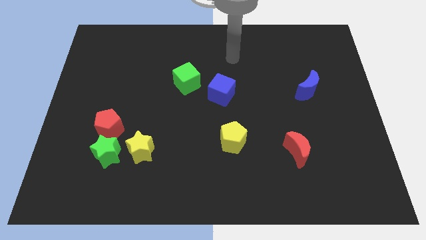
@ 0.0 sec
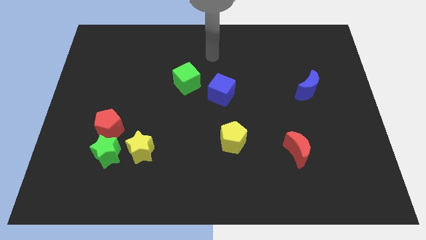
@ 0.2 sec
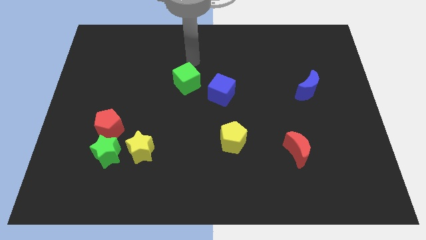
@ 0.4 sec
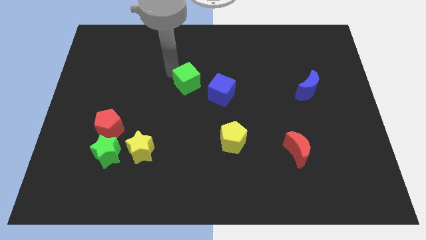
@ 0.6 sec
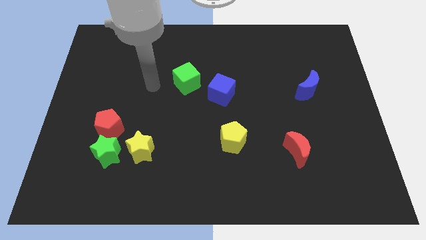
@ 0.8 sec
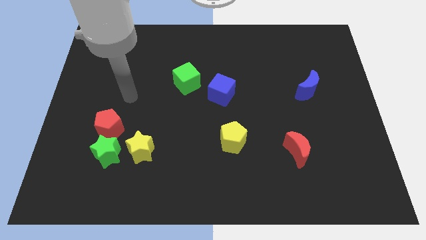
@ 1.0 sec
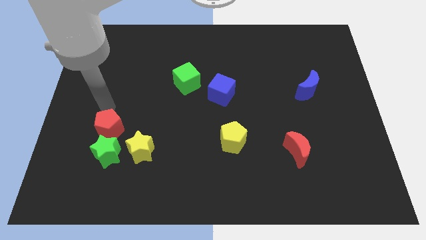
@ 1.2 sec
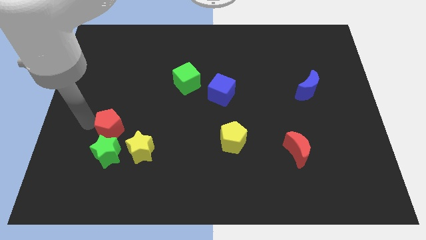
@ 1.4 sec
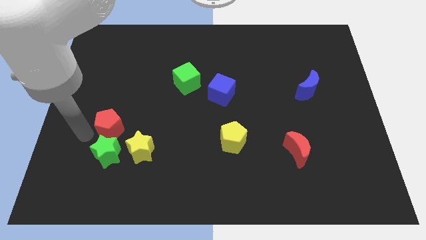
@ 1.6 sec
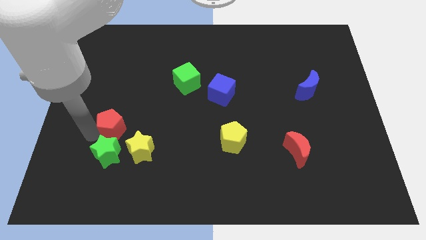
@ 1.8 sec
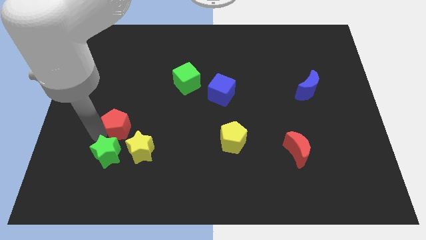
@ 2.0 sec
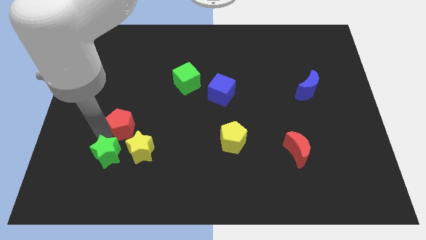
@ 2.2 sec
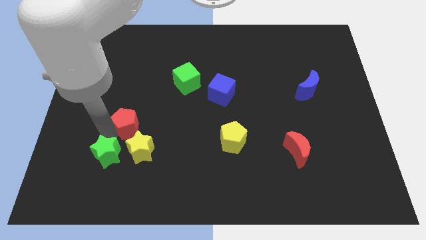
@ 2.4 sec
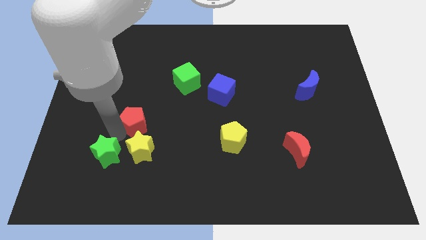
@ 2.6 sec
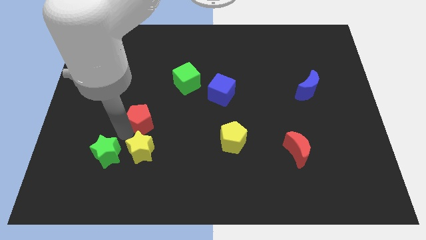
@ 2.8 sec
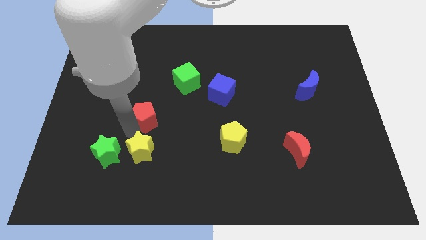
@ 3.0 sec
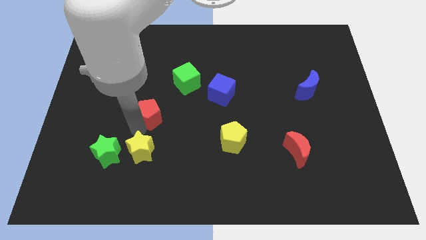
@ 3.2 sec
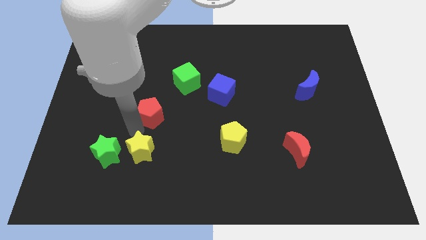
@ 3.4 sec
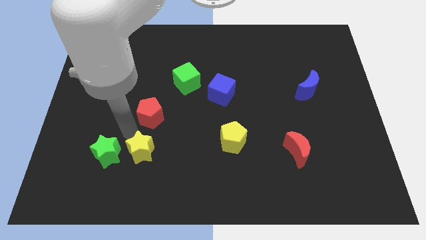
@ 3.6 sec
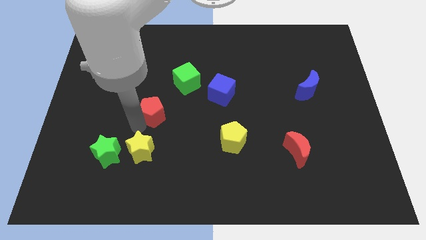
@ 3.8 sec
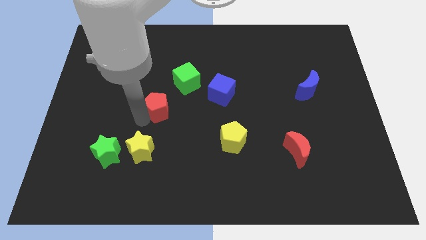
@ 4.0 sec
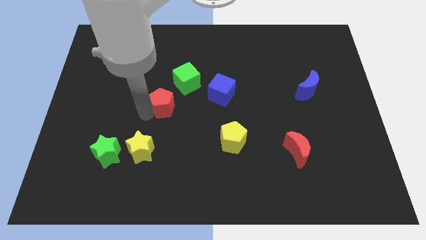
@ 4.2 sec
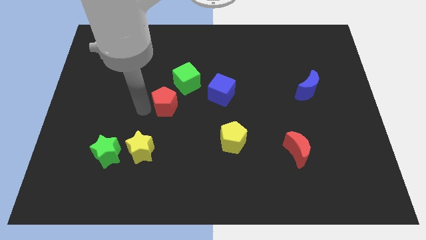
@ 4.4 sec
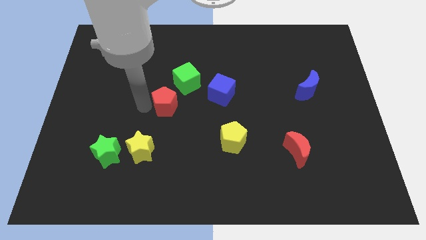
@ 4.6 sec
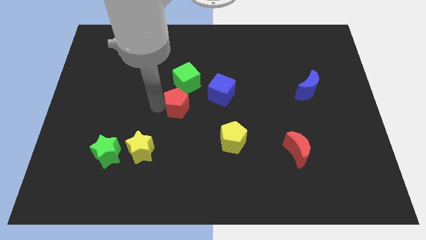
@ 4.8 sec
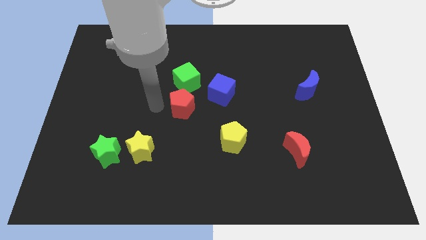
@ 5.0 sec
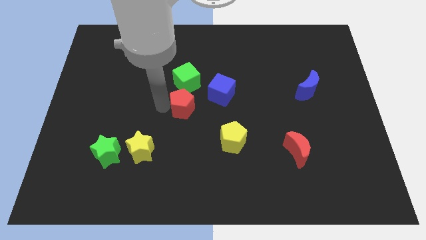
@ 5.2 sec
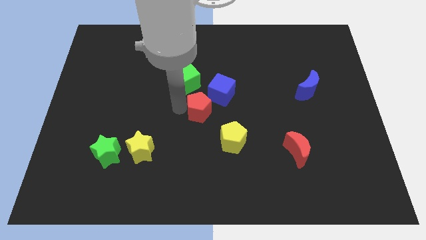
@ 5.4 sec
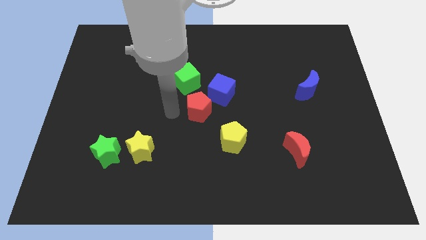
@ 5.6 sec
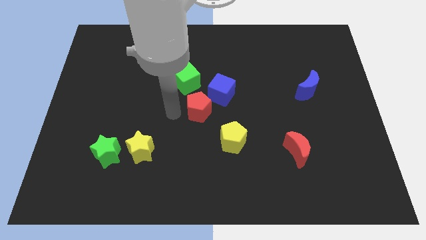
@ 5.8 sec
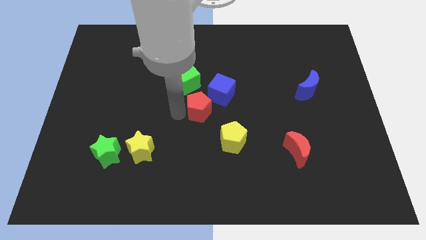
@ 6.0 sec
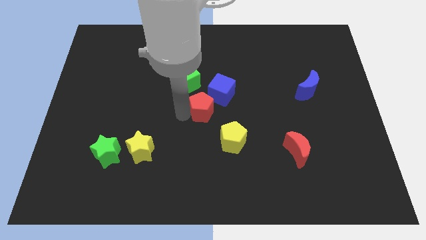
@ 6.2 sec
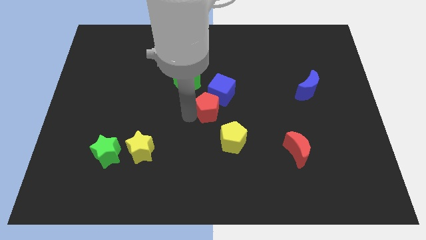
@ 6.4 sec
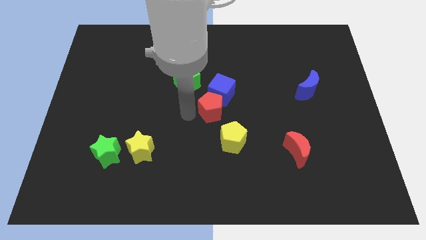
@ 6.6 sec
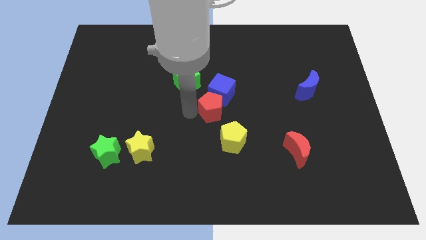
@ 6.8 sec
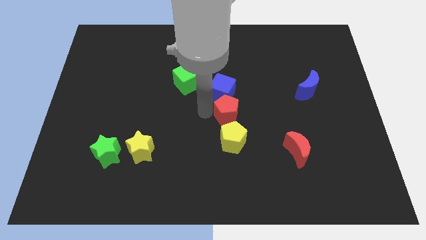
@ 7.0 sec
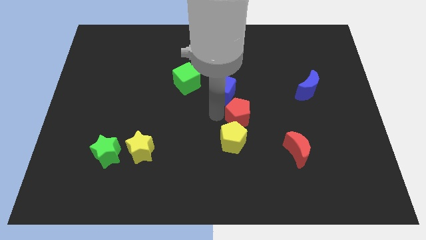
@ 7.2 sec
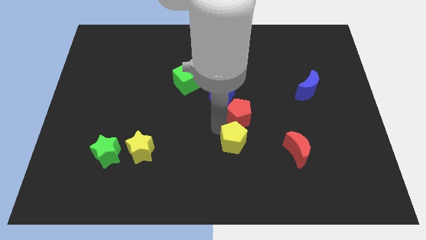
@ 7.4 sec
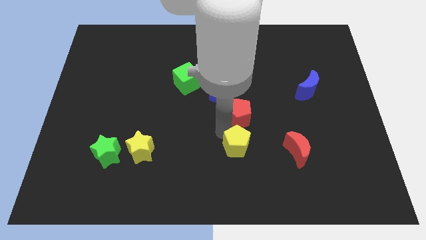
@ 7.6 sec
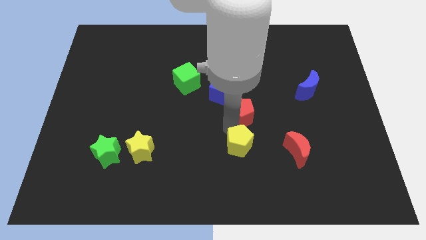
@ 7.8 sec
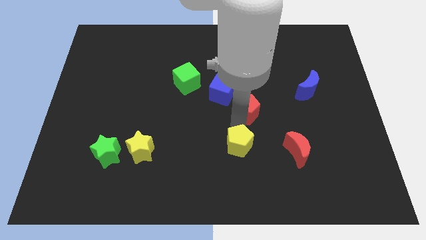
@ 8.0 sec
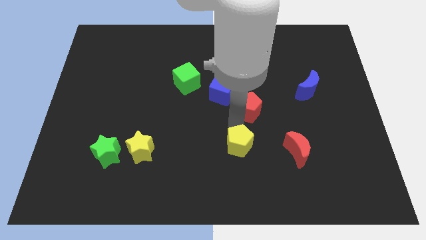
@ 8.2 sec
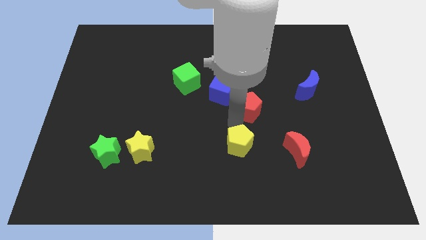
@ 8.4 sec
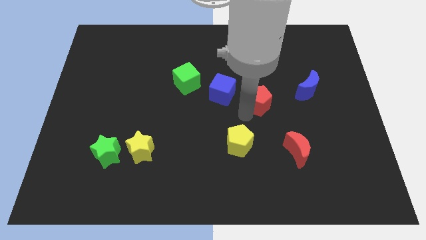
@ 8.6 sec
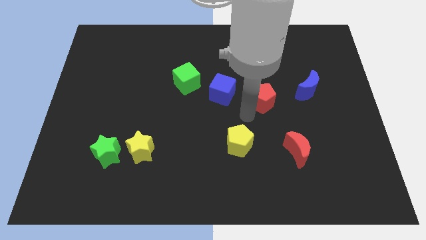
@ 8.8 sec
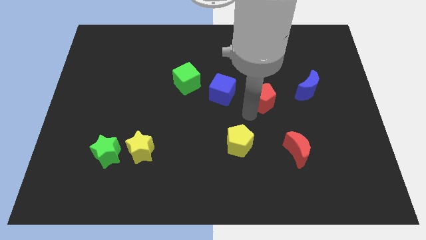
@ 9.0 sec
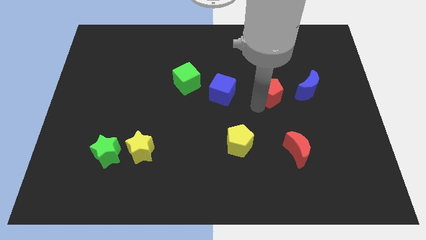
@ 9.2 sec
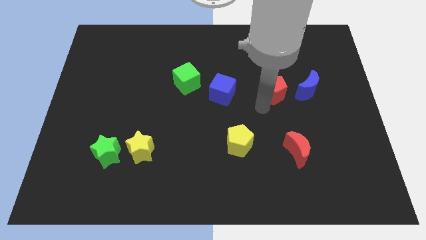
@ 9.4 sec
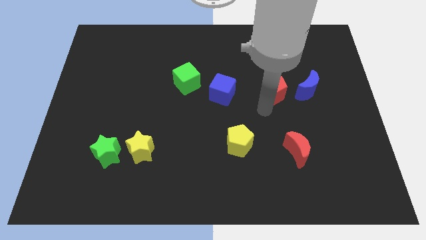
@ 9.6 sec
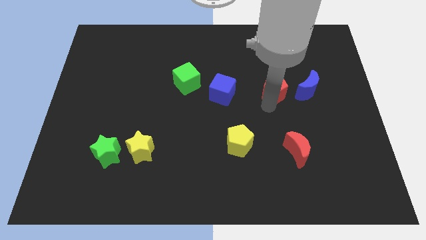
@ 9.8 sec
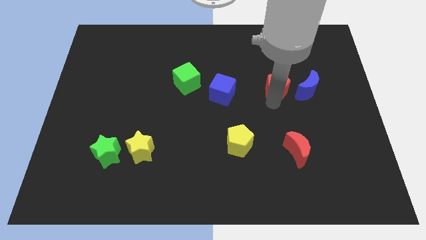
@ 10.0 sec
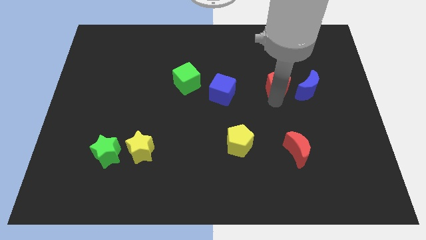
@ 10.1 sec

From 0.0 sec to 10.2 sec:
push the red pentagon to the top left side of the blue moon

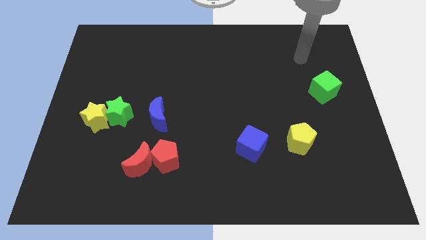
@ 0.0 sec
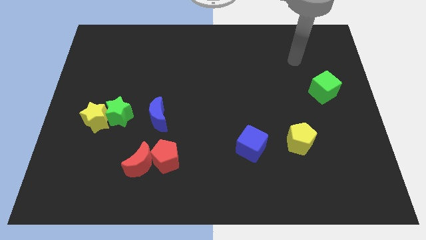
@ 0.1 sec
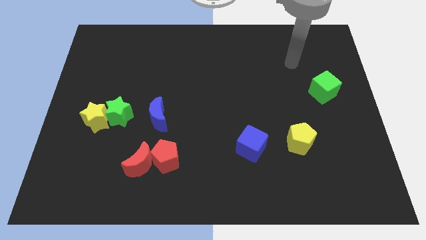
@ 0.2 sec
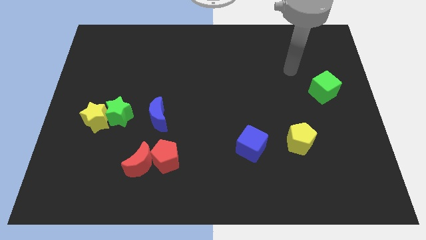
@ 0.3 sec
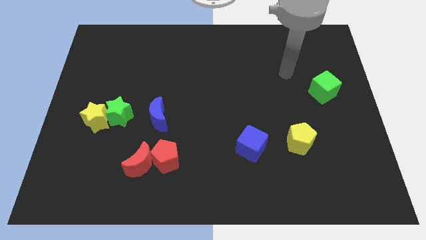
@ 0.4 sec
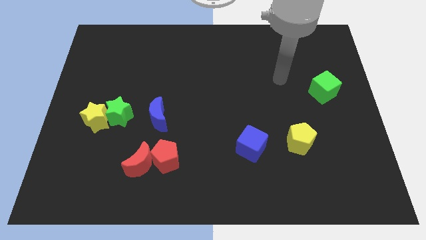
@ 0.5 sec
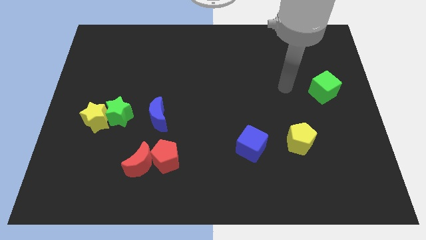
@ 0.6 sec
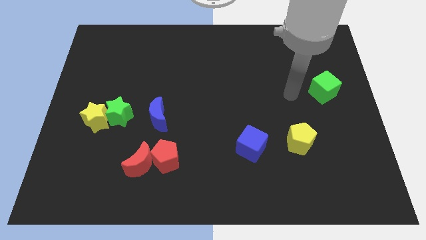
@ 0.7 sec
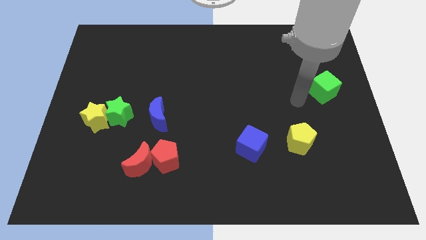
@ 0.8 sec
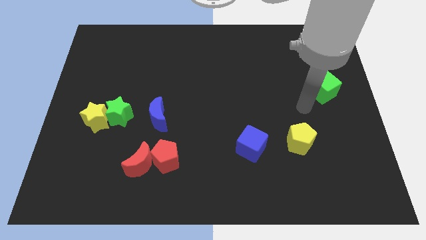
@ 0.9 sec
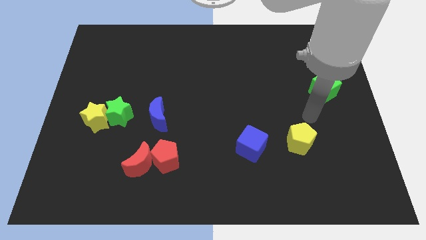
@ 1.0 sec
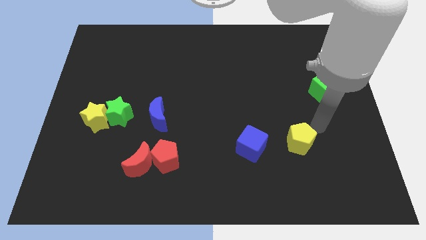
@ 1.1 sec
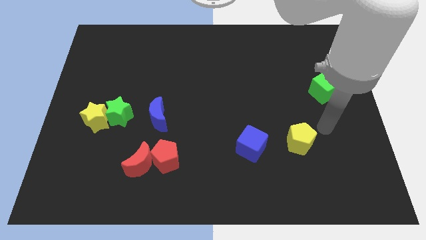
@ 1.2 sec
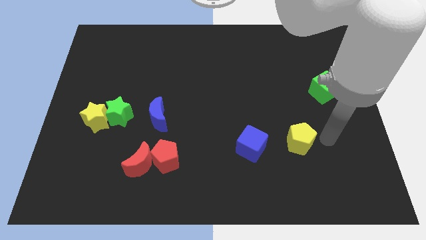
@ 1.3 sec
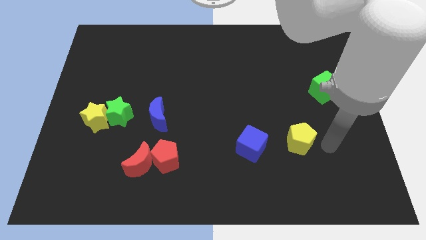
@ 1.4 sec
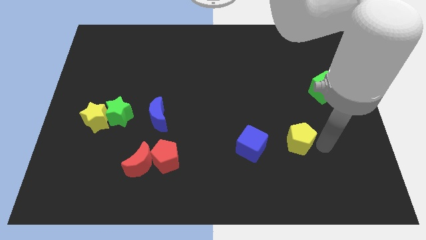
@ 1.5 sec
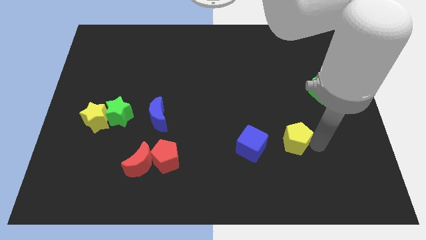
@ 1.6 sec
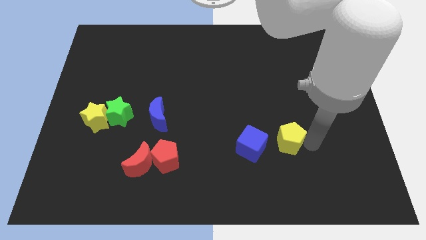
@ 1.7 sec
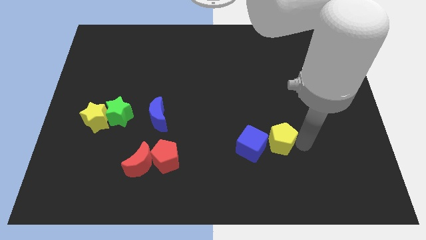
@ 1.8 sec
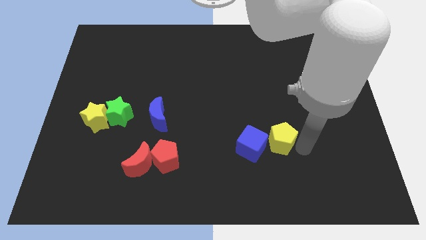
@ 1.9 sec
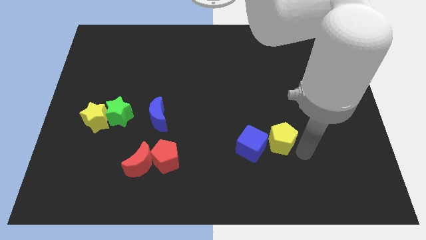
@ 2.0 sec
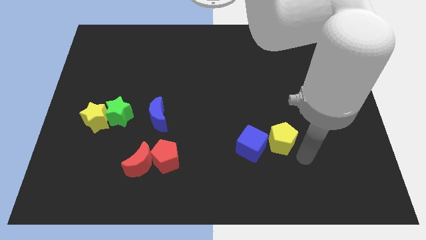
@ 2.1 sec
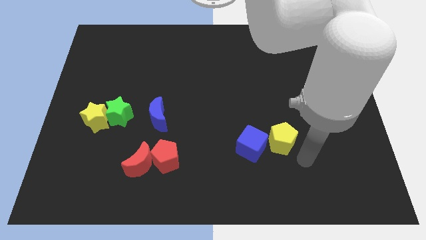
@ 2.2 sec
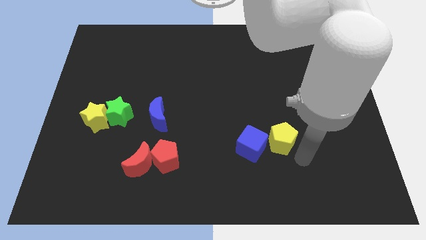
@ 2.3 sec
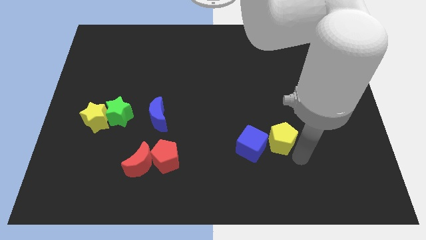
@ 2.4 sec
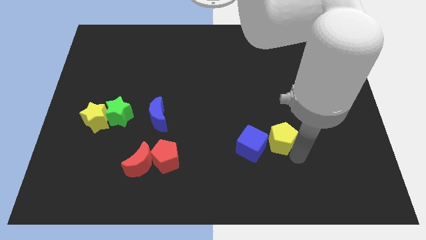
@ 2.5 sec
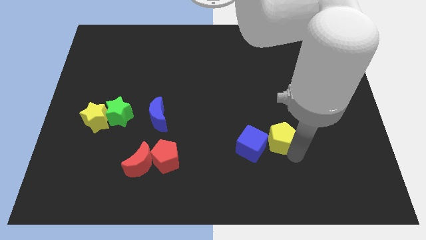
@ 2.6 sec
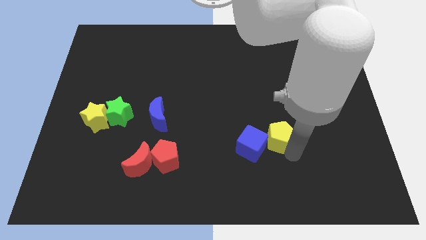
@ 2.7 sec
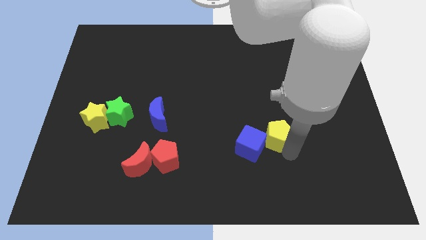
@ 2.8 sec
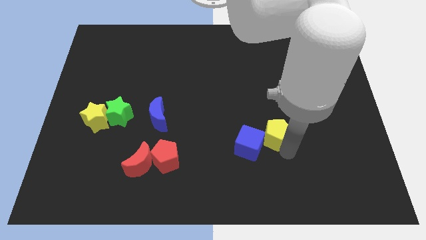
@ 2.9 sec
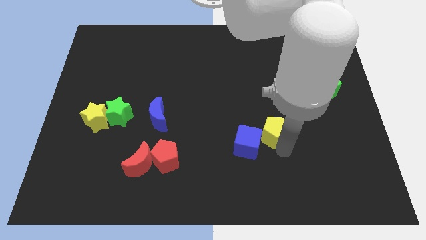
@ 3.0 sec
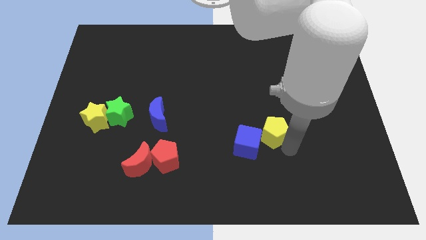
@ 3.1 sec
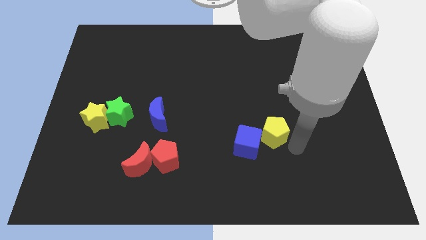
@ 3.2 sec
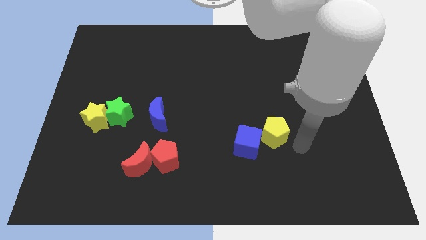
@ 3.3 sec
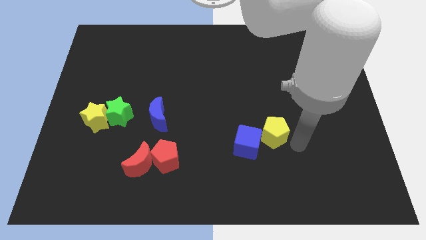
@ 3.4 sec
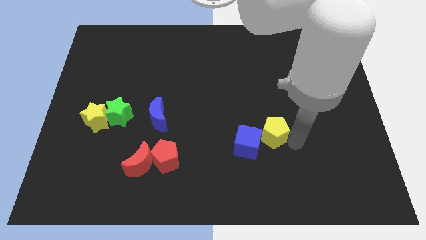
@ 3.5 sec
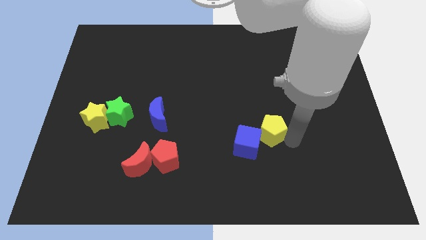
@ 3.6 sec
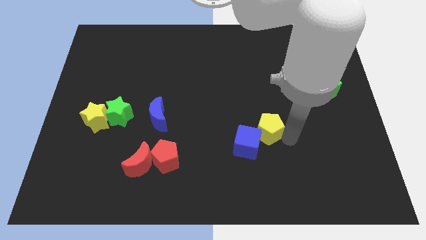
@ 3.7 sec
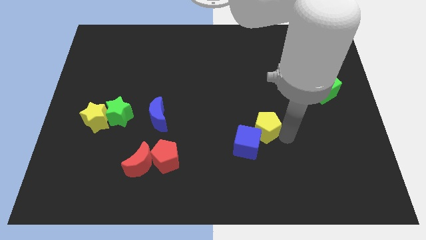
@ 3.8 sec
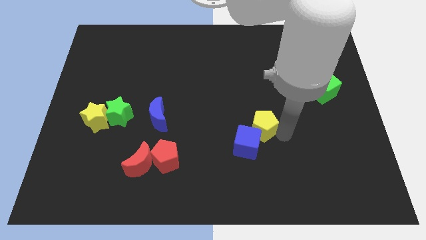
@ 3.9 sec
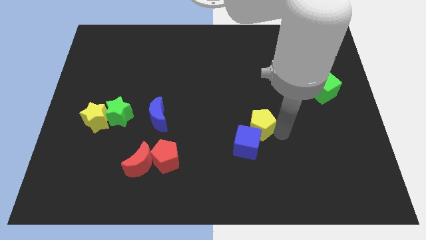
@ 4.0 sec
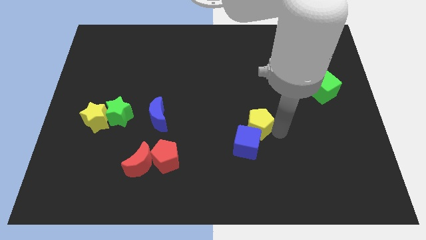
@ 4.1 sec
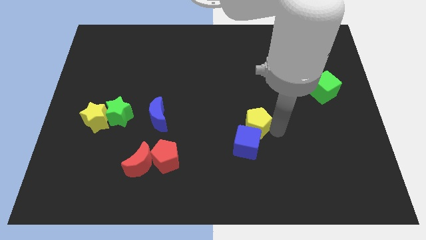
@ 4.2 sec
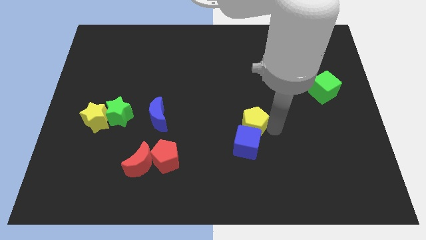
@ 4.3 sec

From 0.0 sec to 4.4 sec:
move the yellow pentagon to the top left side of the blue cube
